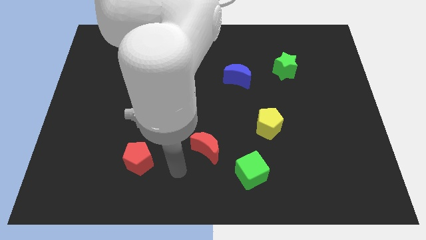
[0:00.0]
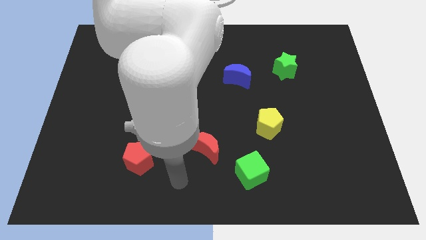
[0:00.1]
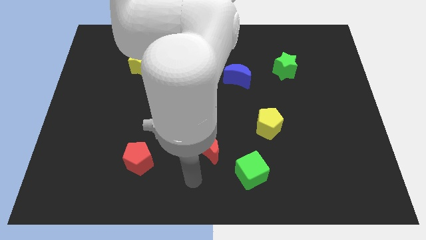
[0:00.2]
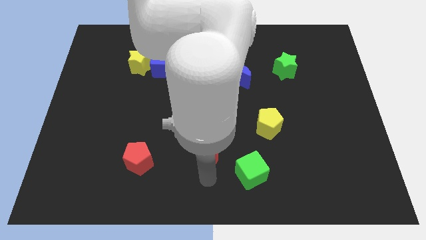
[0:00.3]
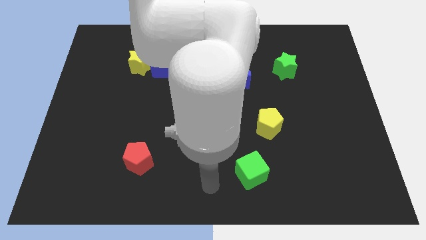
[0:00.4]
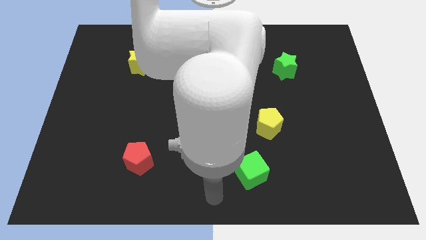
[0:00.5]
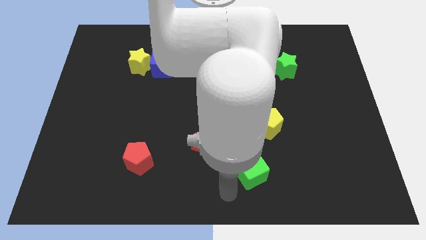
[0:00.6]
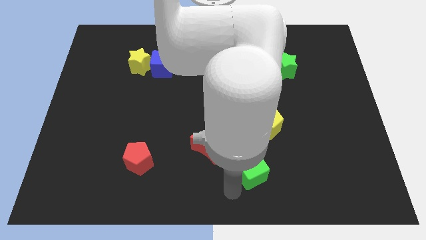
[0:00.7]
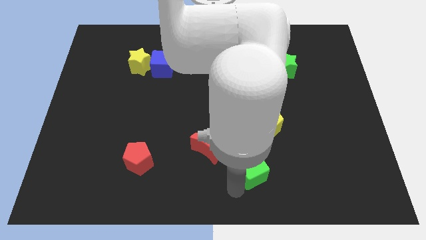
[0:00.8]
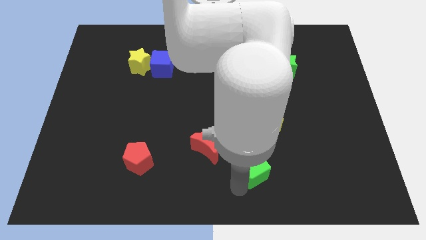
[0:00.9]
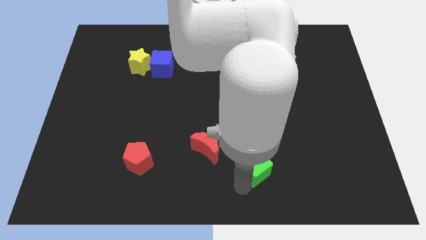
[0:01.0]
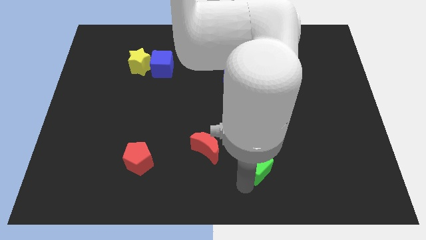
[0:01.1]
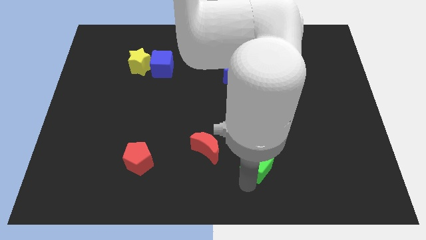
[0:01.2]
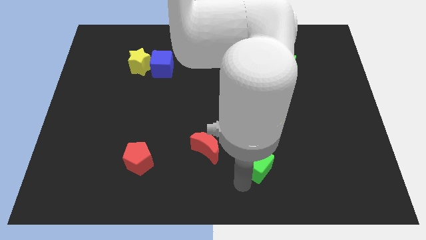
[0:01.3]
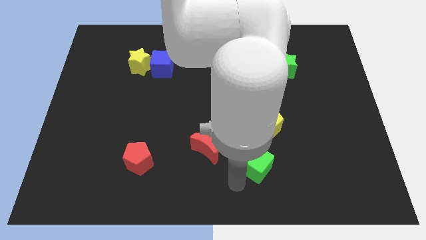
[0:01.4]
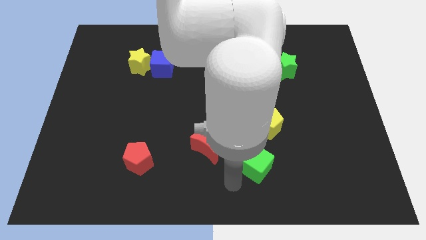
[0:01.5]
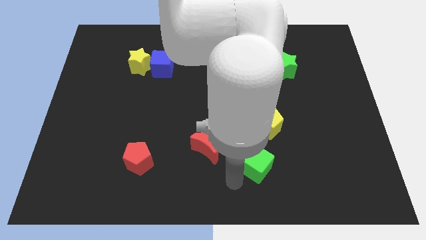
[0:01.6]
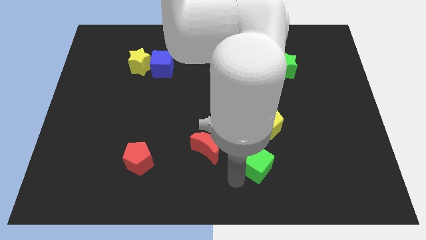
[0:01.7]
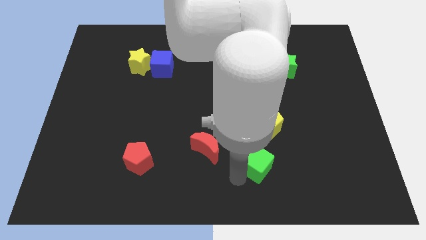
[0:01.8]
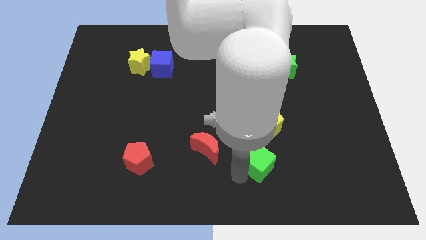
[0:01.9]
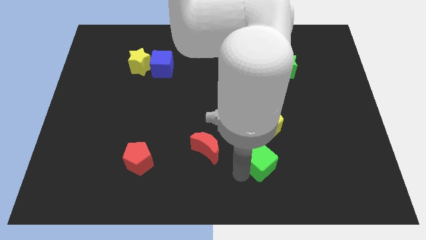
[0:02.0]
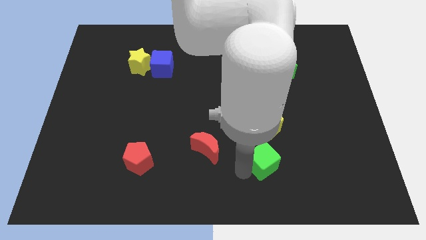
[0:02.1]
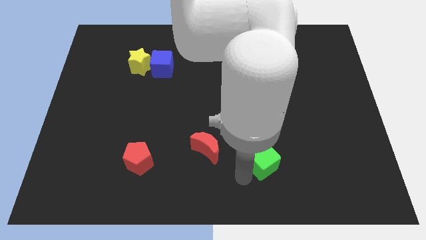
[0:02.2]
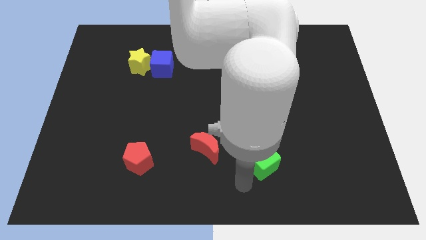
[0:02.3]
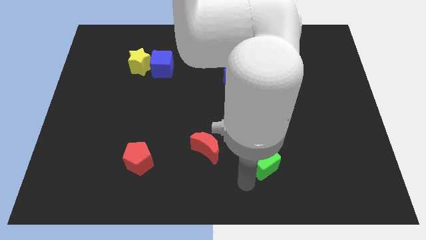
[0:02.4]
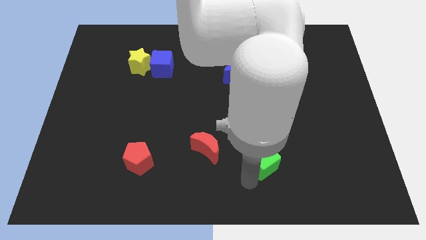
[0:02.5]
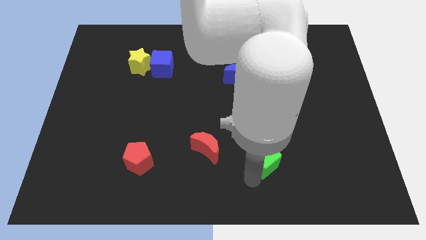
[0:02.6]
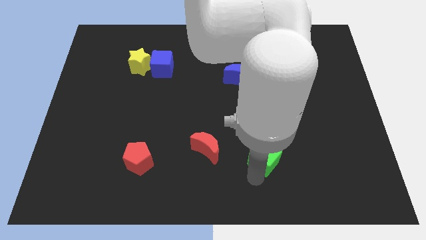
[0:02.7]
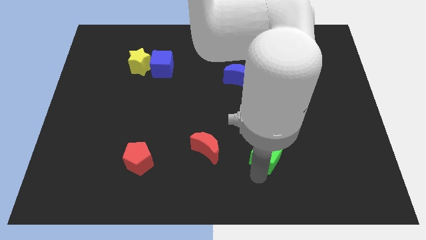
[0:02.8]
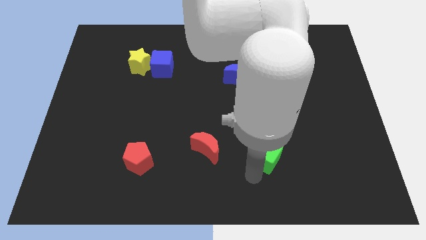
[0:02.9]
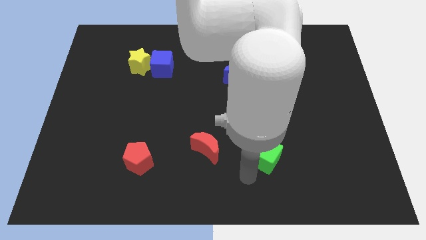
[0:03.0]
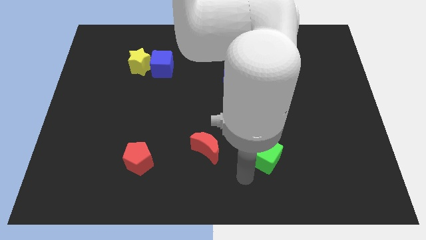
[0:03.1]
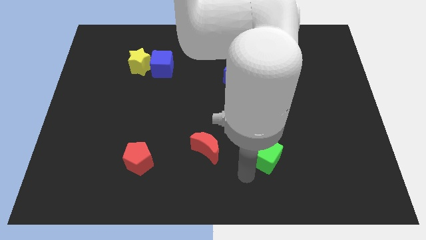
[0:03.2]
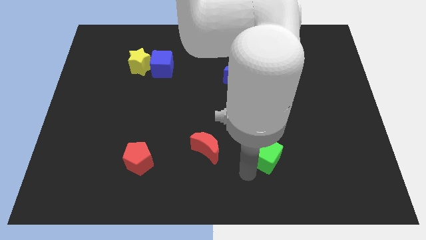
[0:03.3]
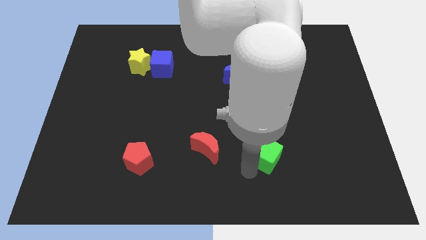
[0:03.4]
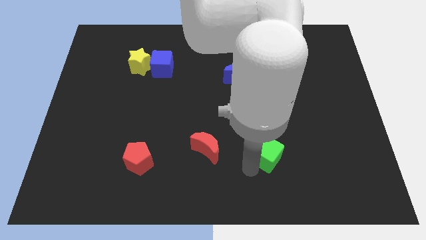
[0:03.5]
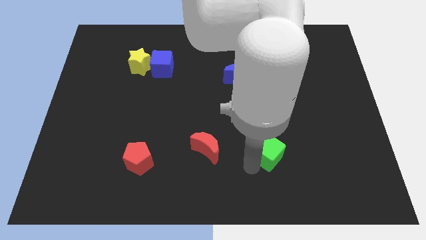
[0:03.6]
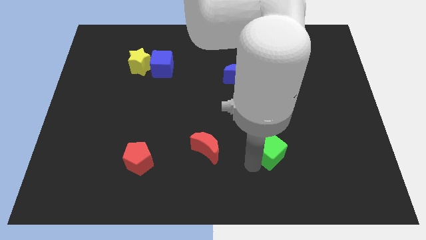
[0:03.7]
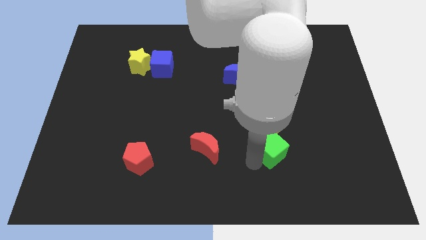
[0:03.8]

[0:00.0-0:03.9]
push the green cube up and right diagonally slightly

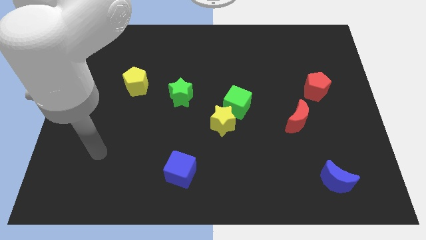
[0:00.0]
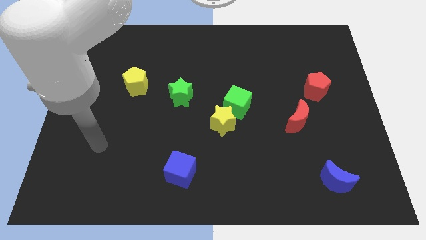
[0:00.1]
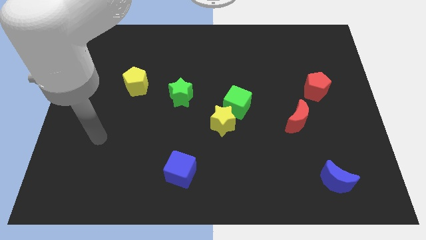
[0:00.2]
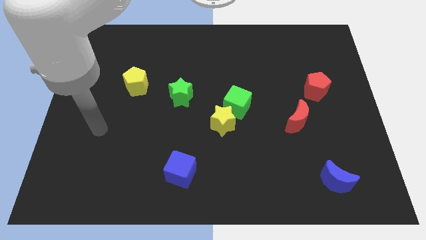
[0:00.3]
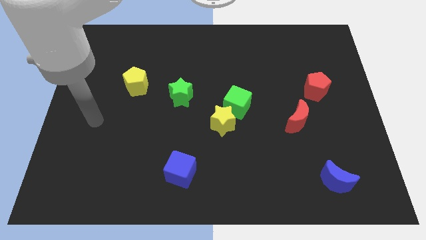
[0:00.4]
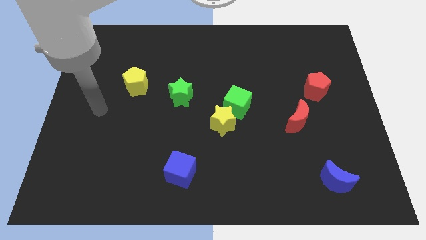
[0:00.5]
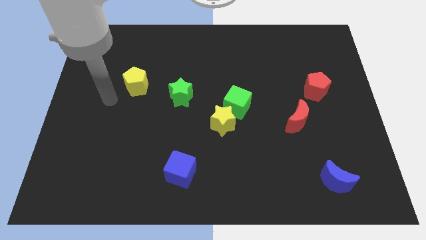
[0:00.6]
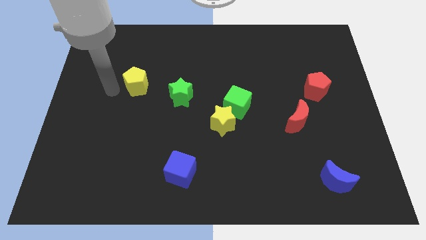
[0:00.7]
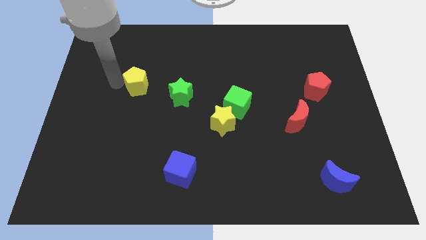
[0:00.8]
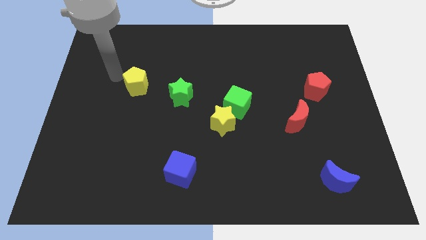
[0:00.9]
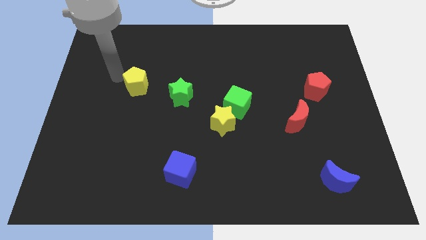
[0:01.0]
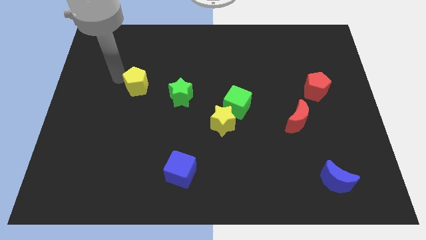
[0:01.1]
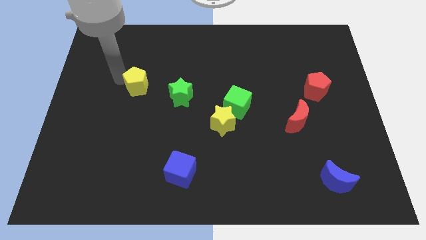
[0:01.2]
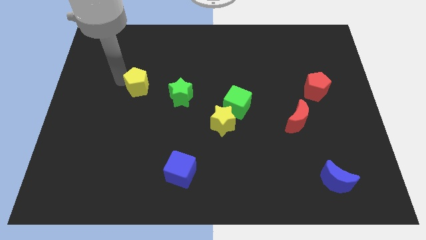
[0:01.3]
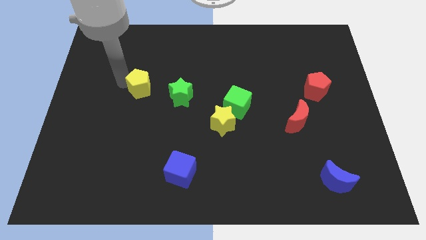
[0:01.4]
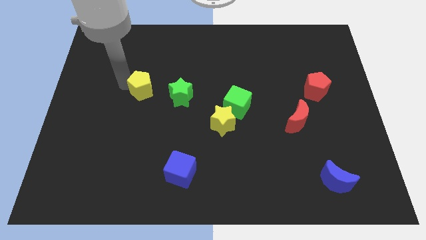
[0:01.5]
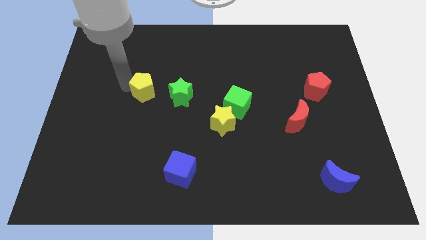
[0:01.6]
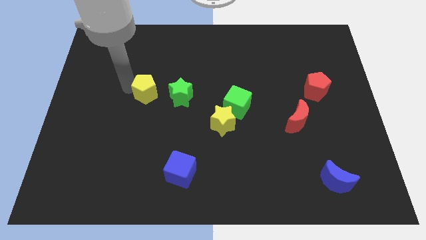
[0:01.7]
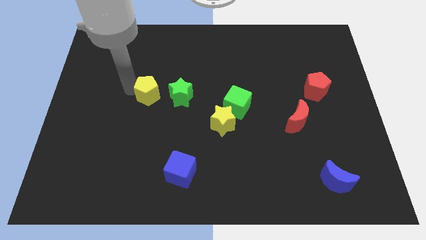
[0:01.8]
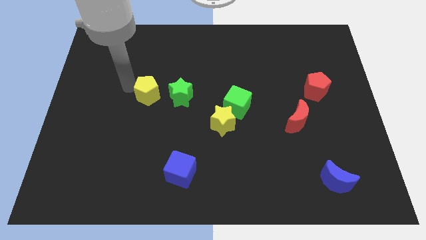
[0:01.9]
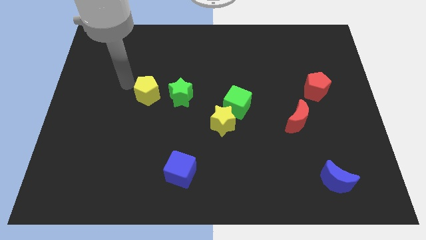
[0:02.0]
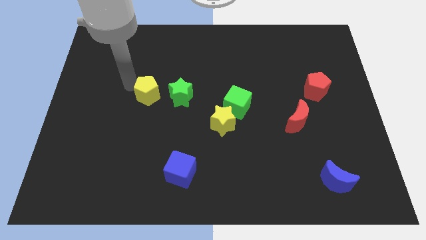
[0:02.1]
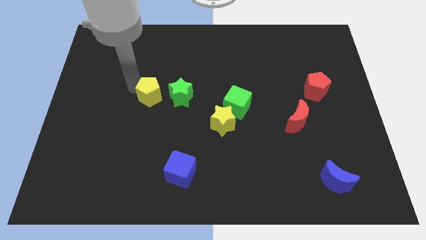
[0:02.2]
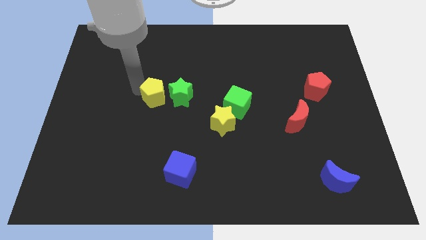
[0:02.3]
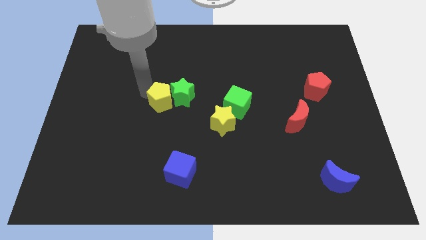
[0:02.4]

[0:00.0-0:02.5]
slightly push the yellow pentagon downwards and right

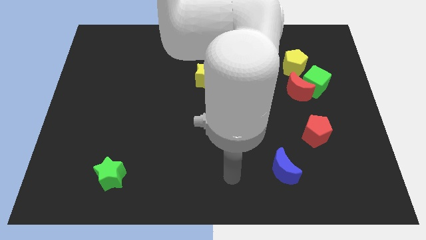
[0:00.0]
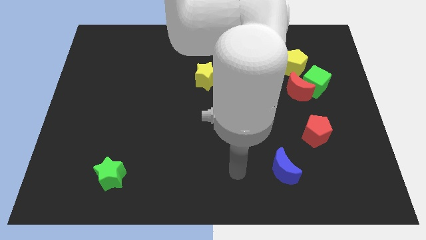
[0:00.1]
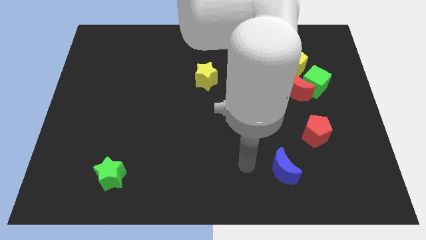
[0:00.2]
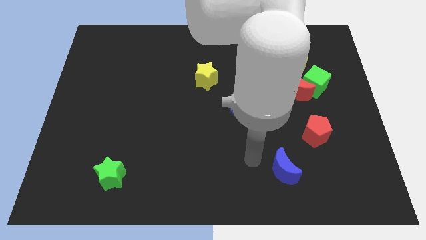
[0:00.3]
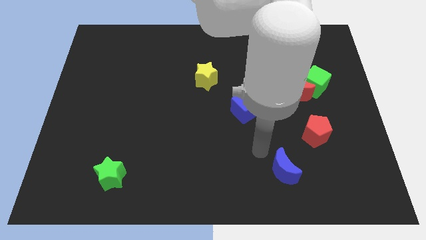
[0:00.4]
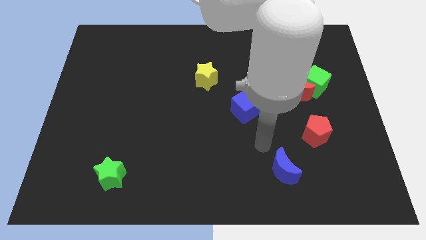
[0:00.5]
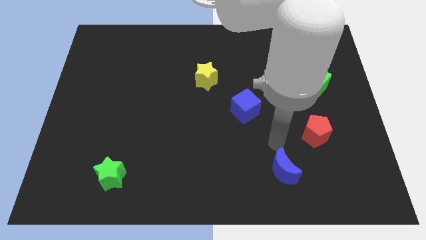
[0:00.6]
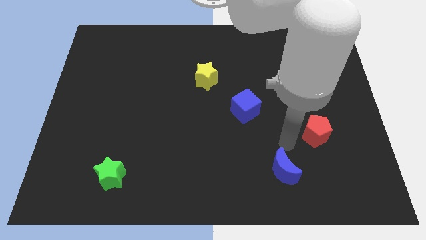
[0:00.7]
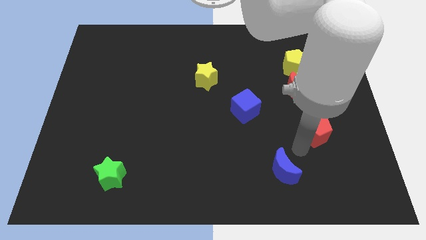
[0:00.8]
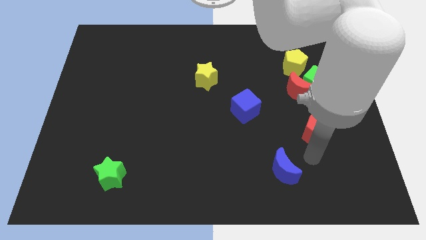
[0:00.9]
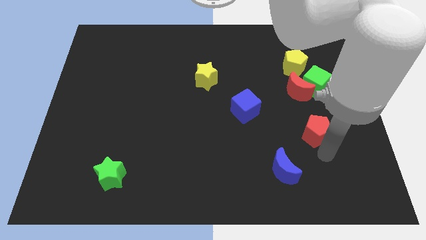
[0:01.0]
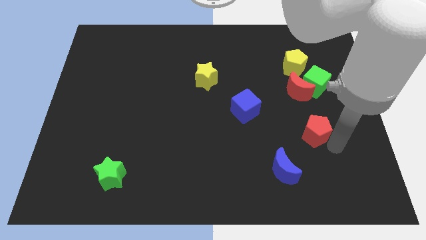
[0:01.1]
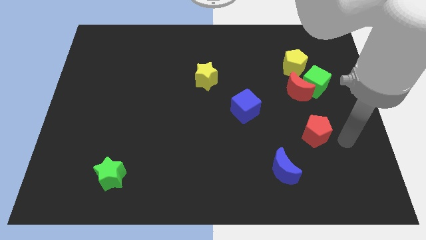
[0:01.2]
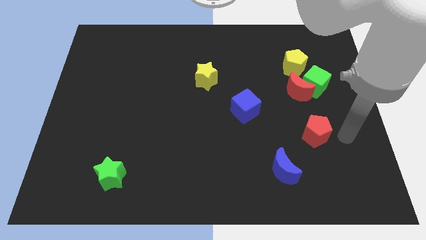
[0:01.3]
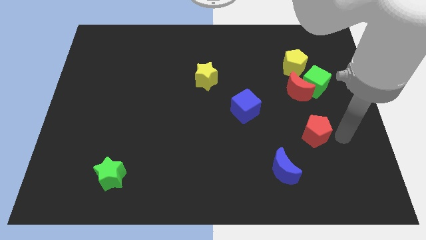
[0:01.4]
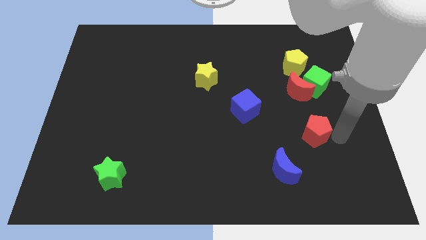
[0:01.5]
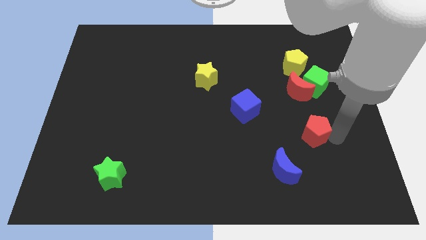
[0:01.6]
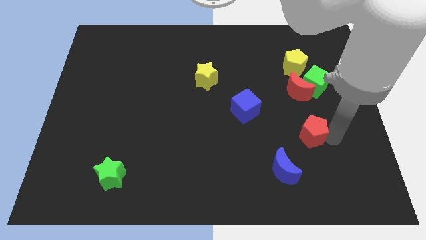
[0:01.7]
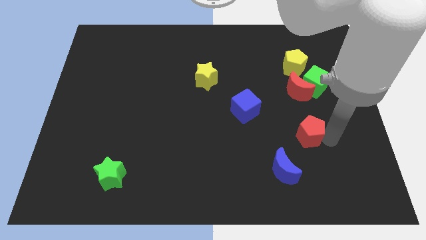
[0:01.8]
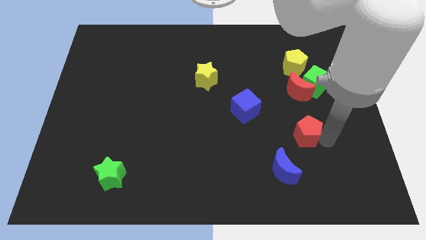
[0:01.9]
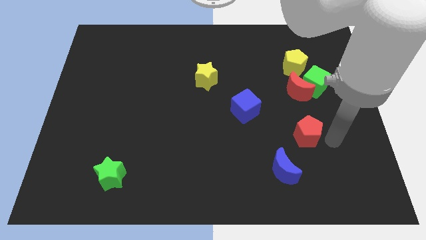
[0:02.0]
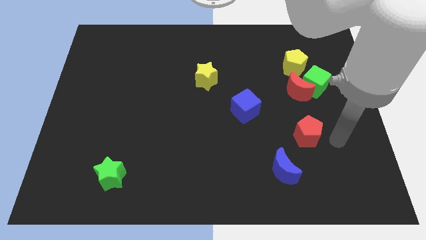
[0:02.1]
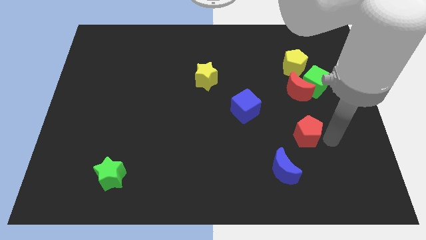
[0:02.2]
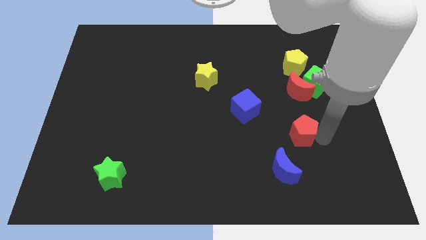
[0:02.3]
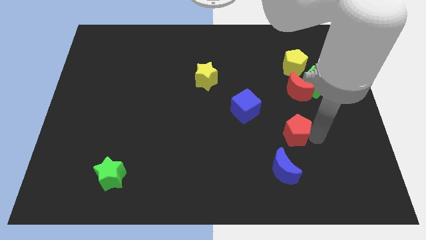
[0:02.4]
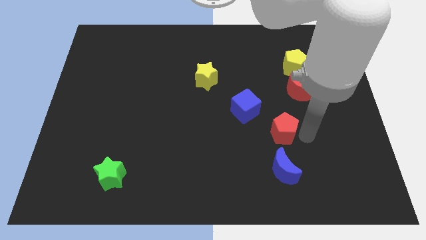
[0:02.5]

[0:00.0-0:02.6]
push the red pentagon left a bit
